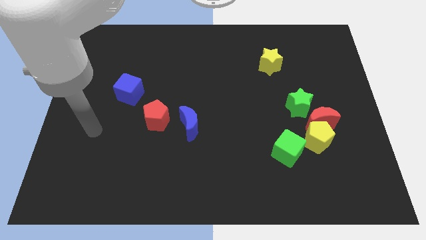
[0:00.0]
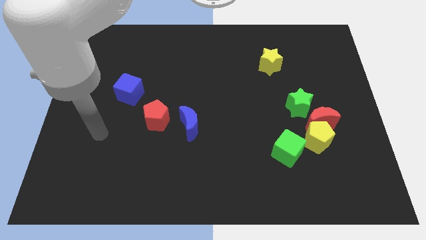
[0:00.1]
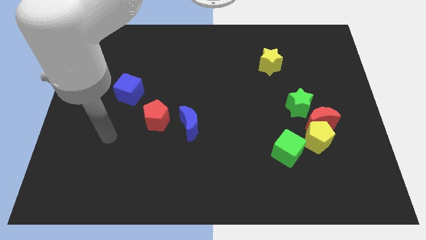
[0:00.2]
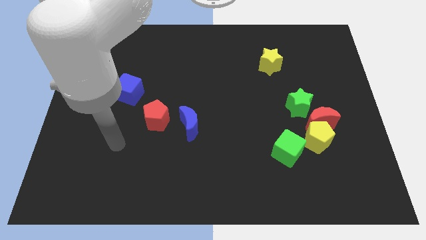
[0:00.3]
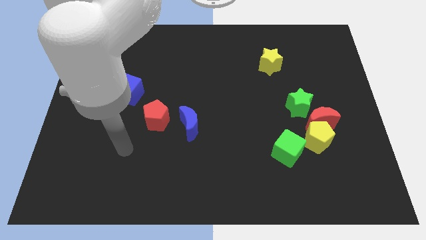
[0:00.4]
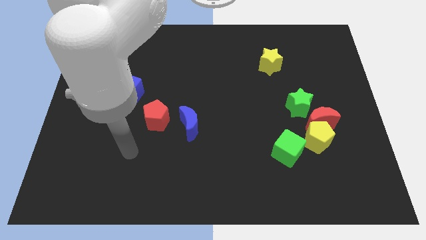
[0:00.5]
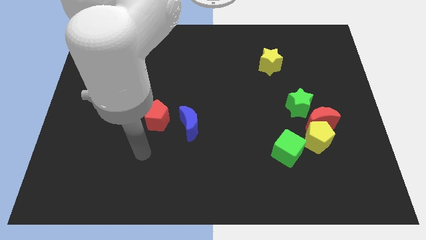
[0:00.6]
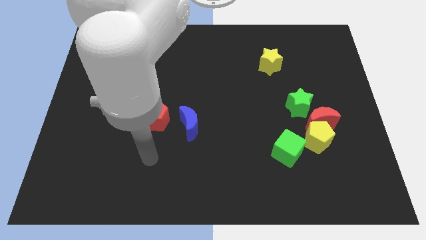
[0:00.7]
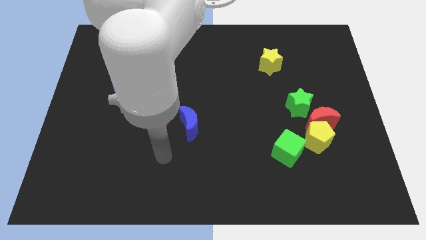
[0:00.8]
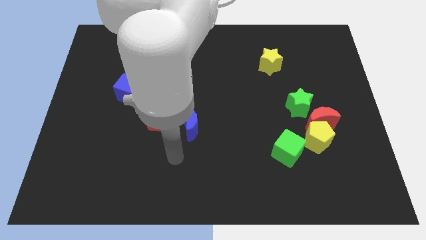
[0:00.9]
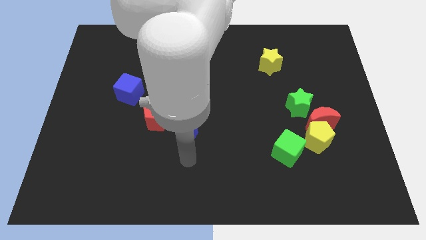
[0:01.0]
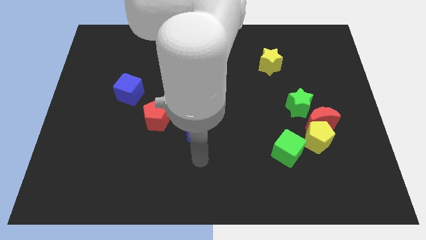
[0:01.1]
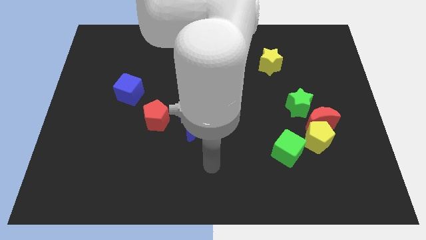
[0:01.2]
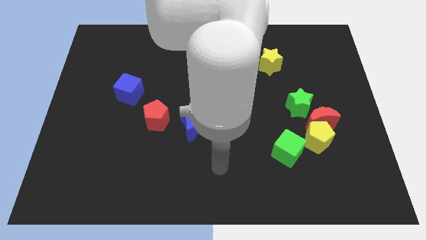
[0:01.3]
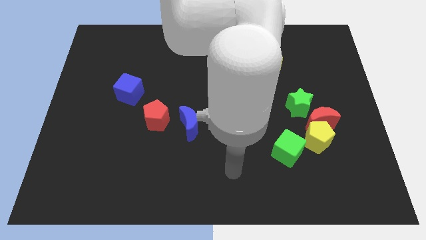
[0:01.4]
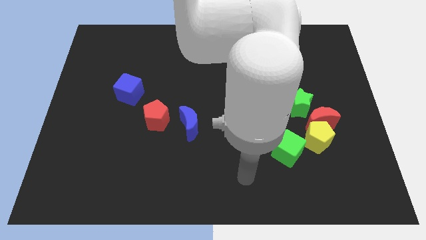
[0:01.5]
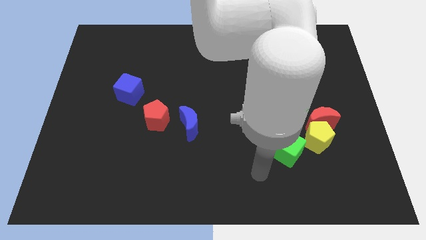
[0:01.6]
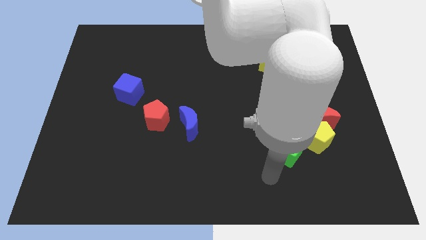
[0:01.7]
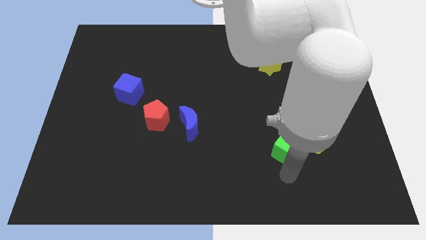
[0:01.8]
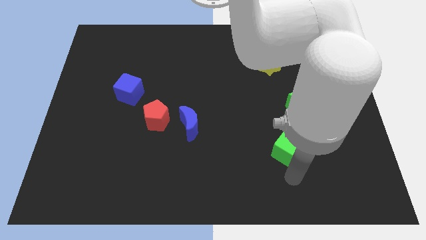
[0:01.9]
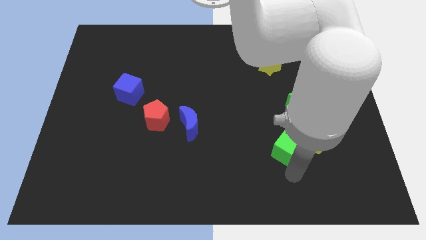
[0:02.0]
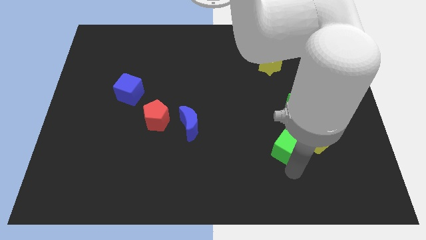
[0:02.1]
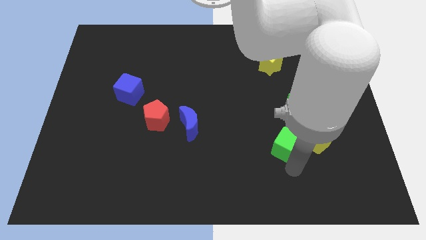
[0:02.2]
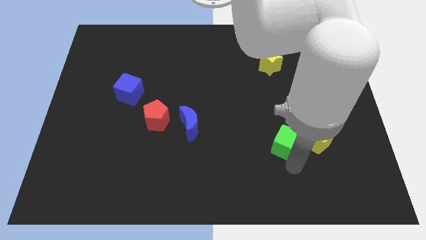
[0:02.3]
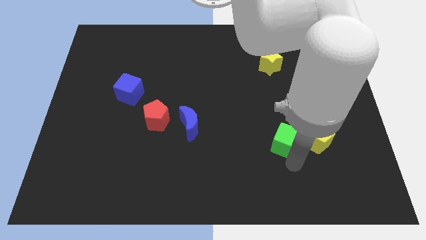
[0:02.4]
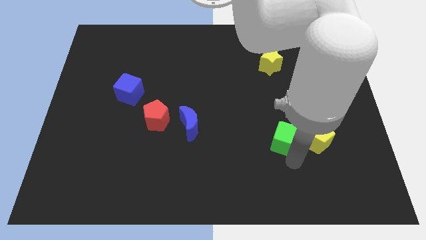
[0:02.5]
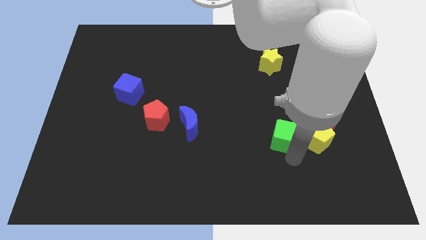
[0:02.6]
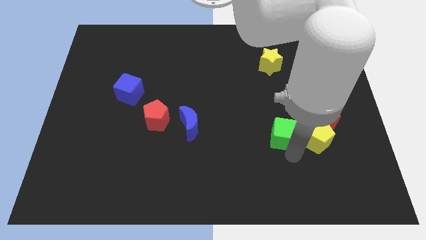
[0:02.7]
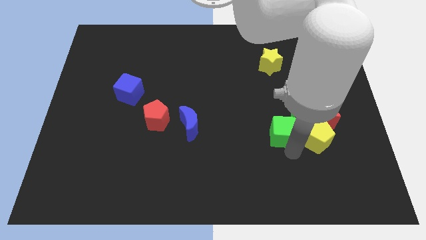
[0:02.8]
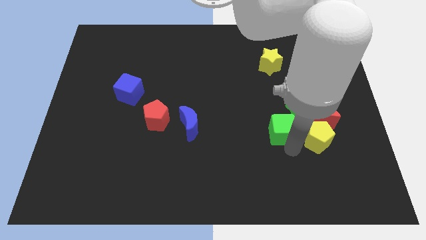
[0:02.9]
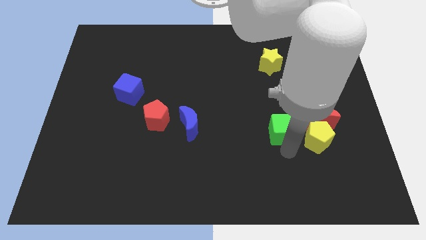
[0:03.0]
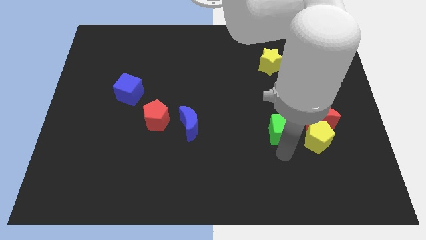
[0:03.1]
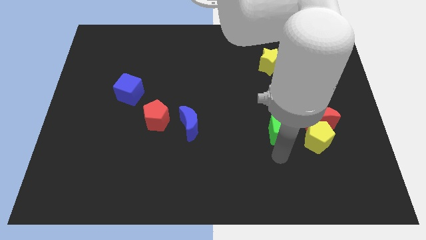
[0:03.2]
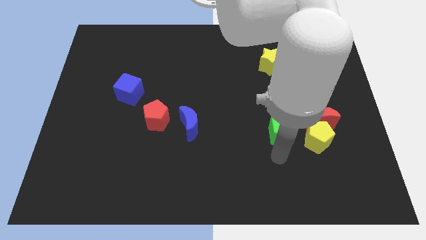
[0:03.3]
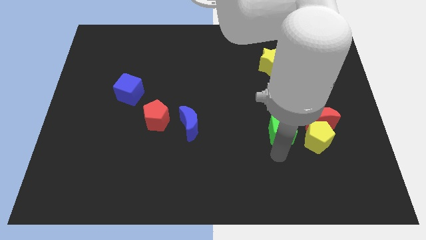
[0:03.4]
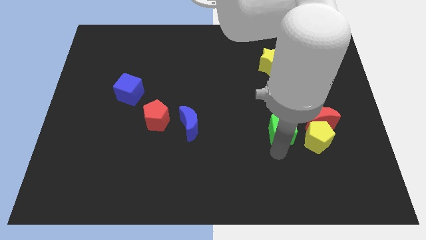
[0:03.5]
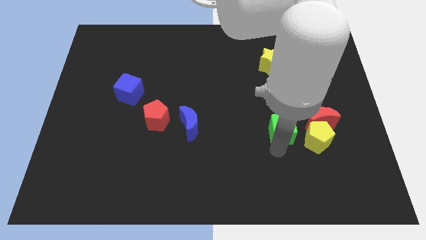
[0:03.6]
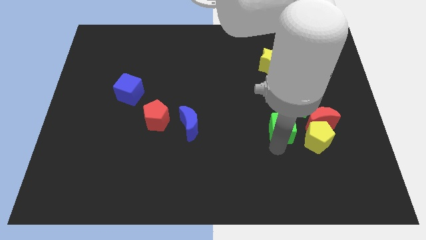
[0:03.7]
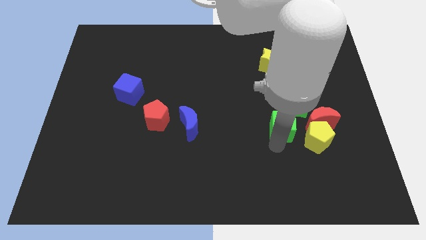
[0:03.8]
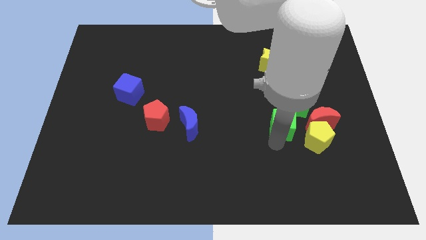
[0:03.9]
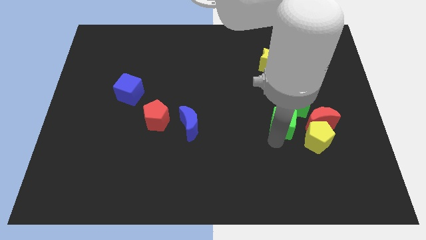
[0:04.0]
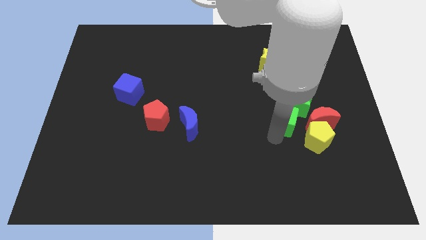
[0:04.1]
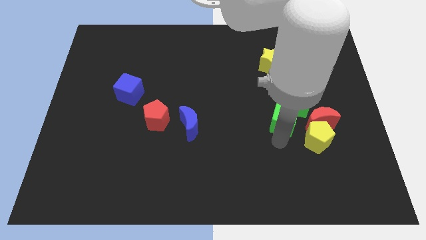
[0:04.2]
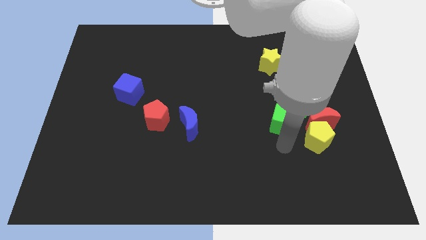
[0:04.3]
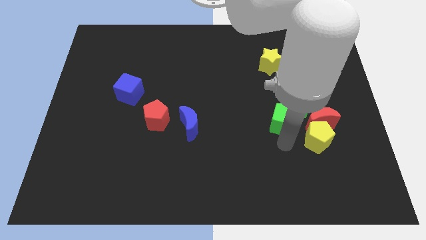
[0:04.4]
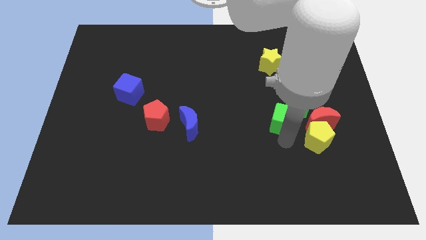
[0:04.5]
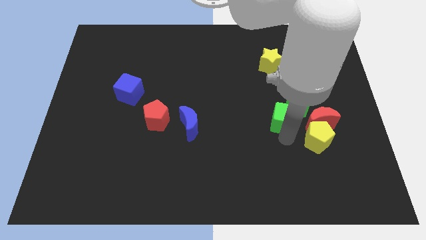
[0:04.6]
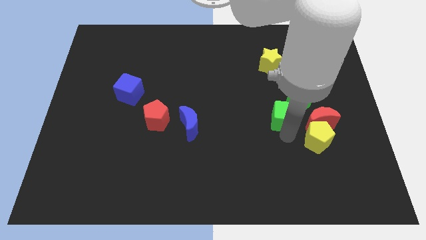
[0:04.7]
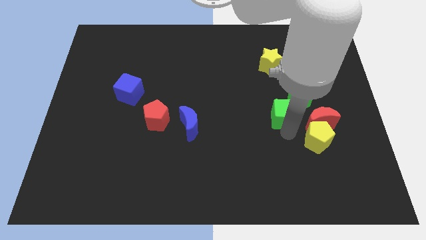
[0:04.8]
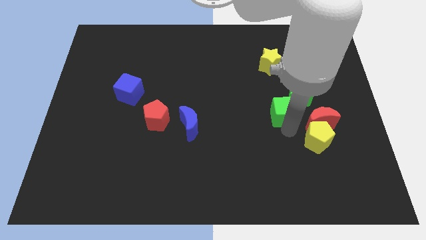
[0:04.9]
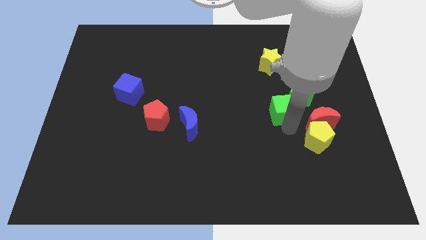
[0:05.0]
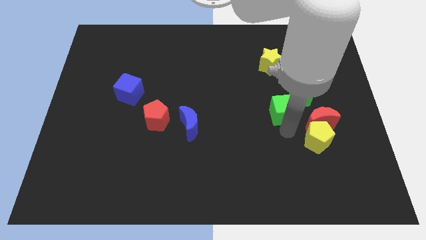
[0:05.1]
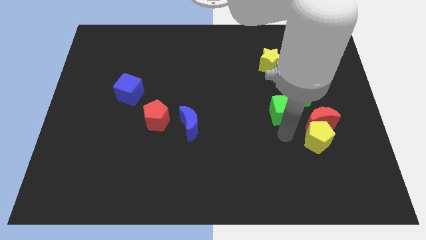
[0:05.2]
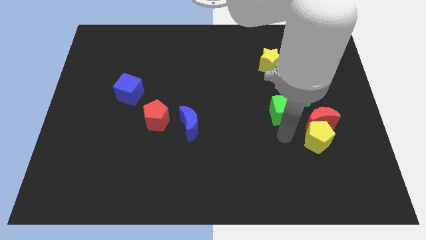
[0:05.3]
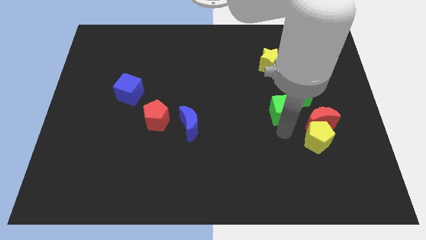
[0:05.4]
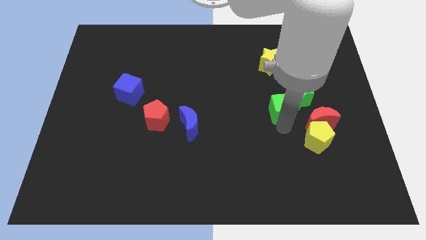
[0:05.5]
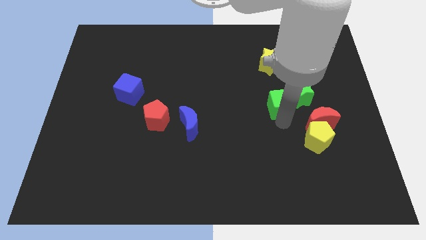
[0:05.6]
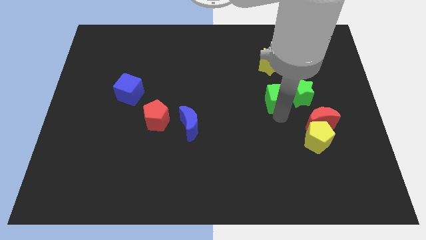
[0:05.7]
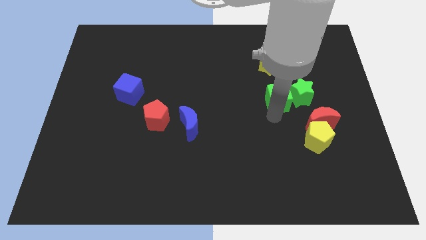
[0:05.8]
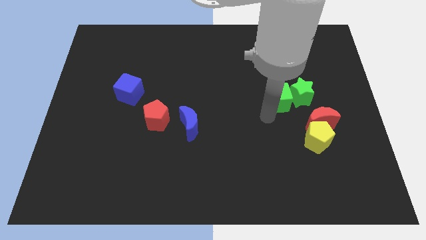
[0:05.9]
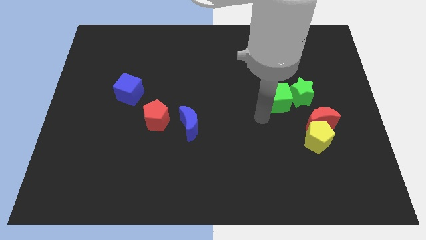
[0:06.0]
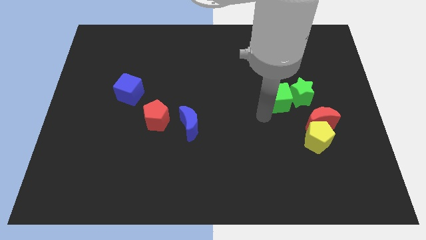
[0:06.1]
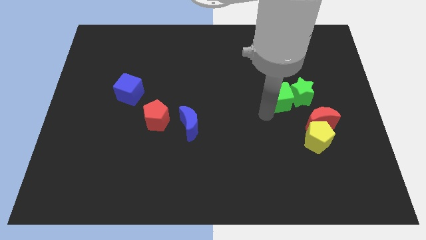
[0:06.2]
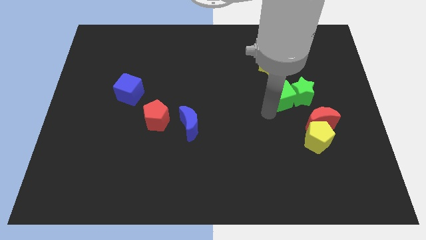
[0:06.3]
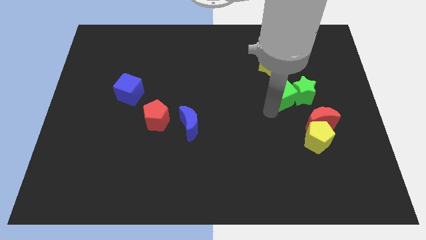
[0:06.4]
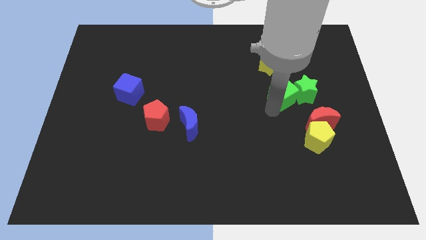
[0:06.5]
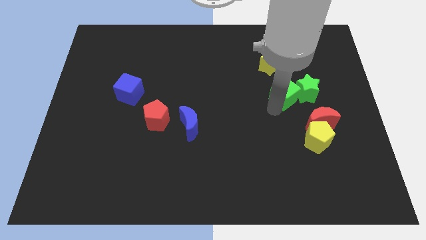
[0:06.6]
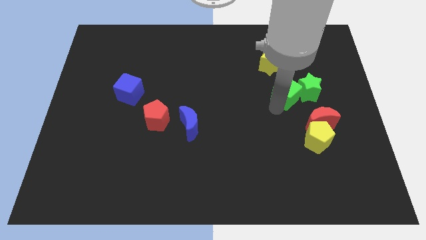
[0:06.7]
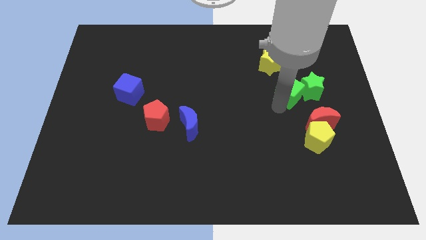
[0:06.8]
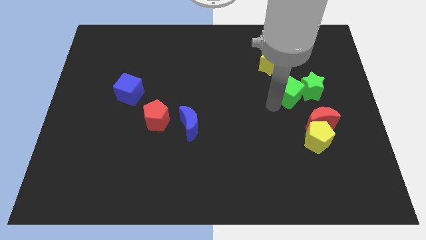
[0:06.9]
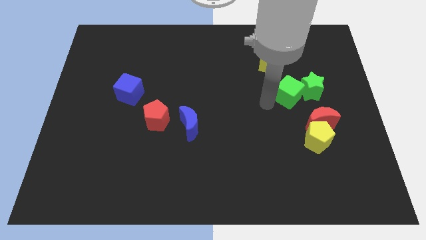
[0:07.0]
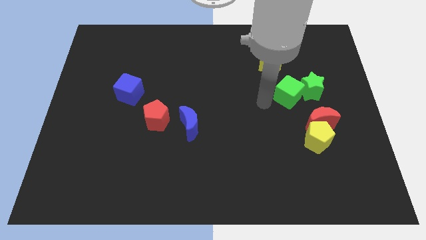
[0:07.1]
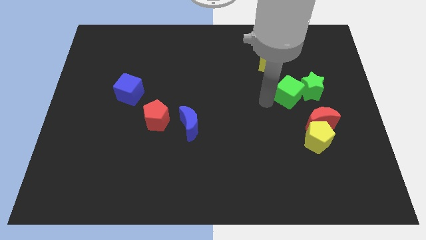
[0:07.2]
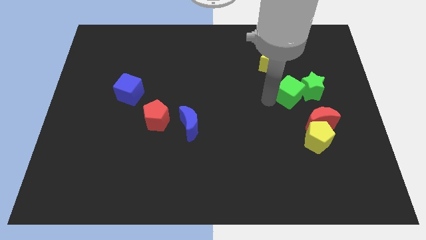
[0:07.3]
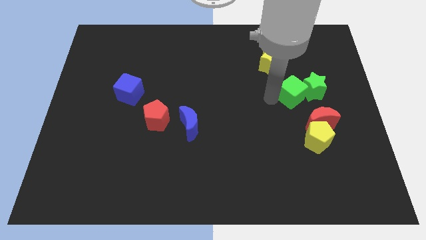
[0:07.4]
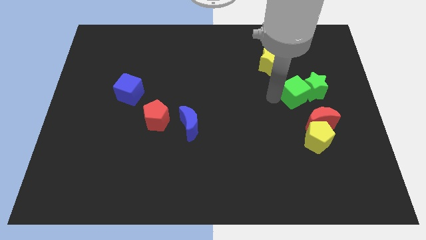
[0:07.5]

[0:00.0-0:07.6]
move the green cube to the top of the red moon
